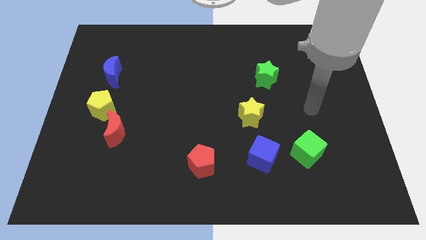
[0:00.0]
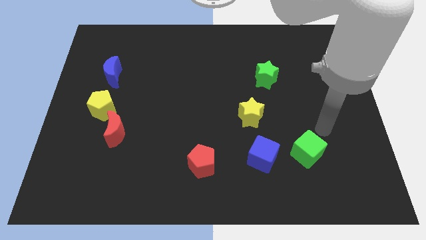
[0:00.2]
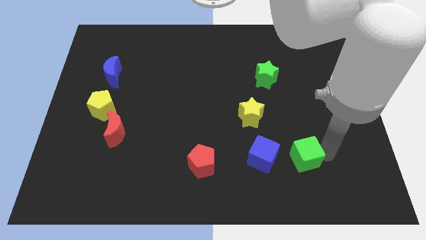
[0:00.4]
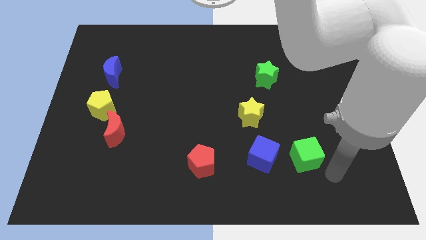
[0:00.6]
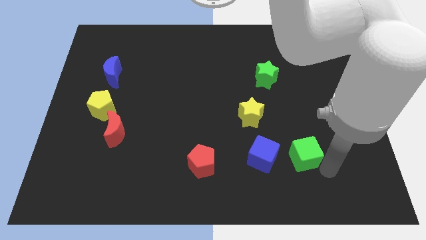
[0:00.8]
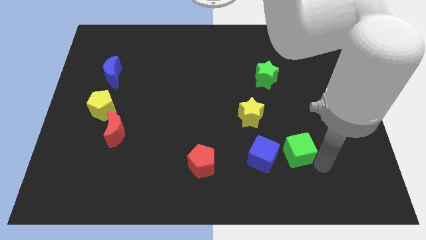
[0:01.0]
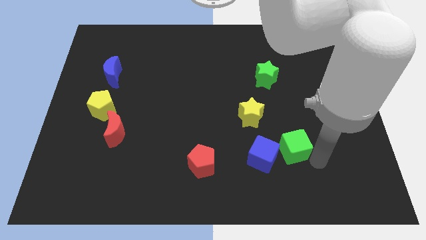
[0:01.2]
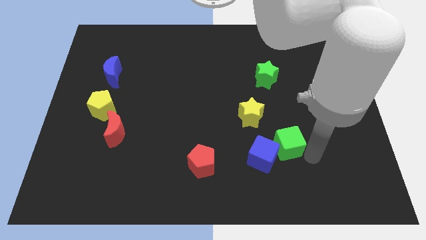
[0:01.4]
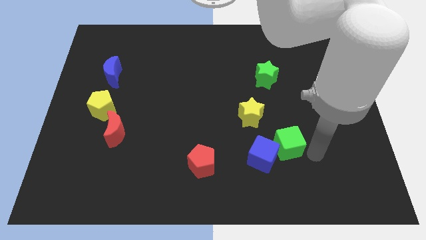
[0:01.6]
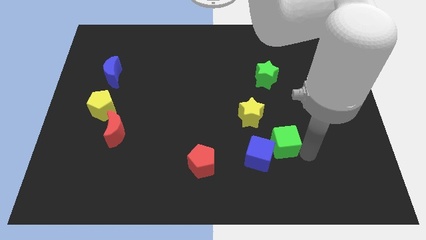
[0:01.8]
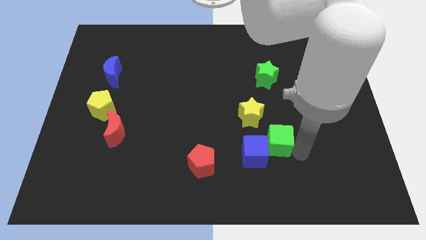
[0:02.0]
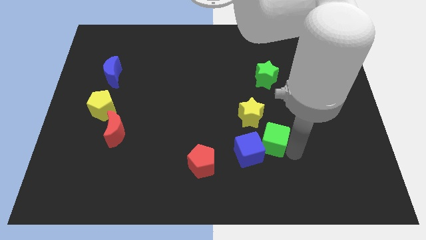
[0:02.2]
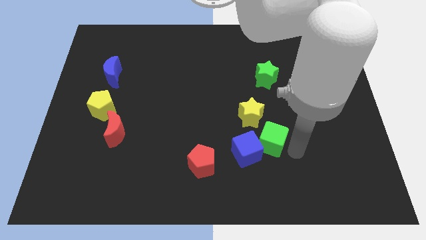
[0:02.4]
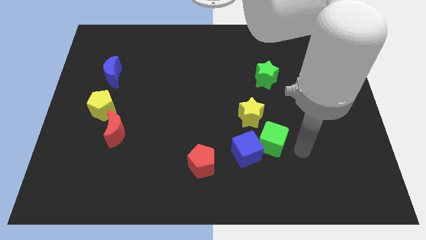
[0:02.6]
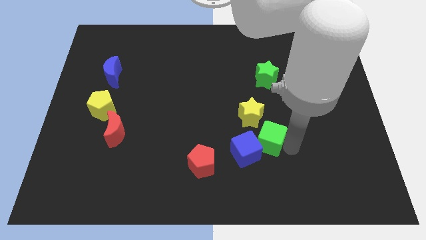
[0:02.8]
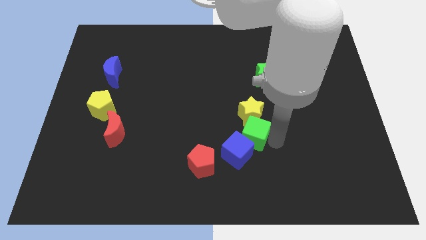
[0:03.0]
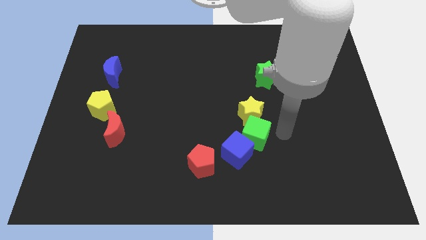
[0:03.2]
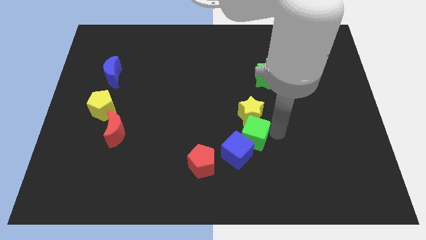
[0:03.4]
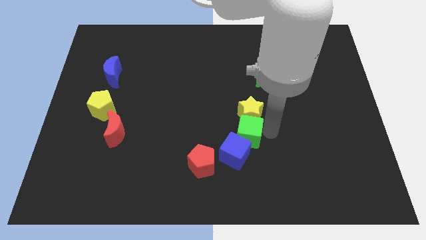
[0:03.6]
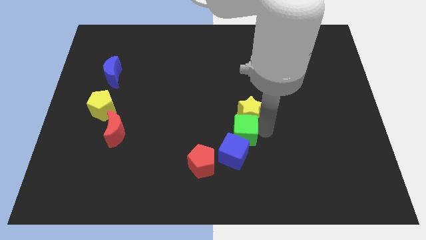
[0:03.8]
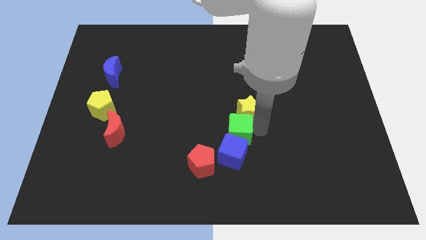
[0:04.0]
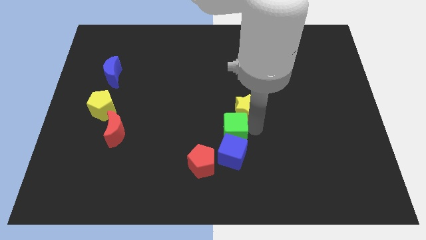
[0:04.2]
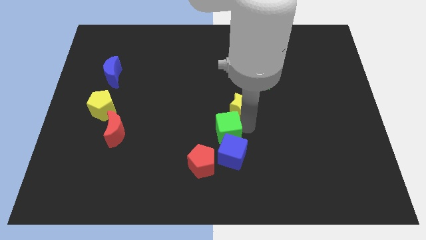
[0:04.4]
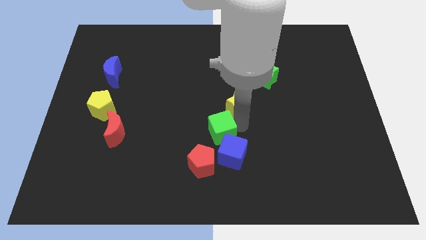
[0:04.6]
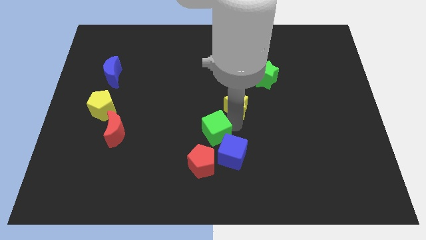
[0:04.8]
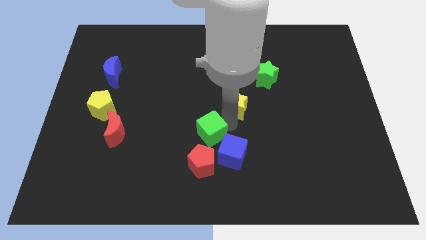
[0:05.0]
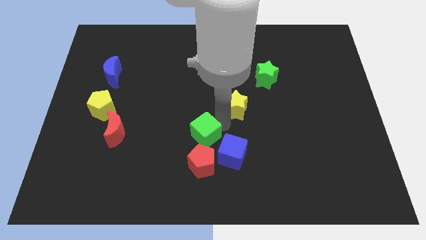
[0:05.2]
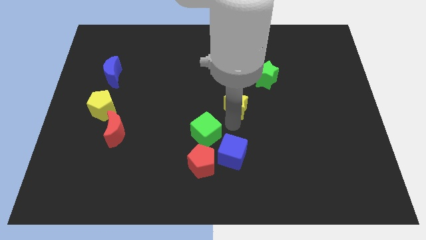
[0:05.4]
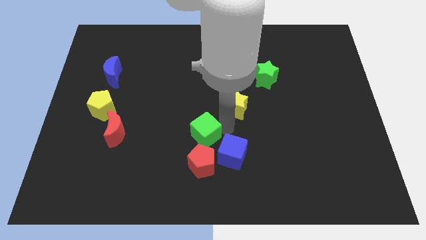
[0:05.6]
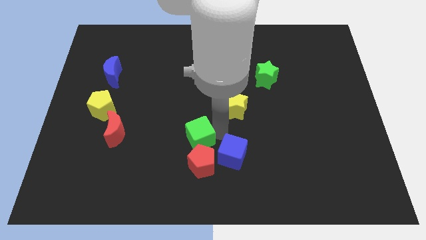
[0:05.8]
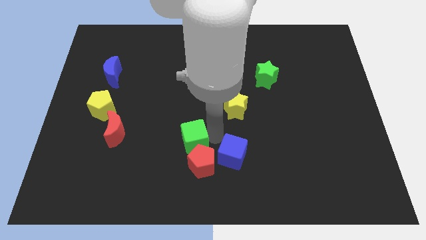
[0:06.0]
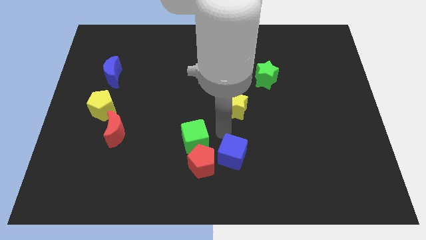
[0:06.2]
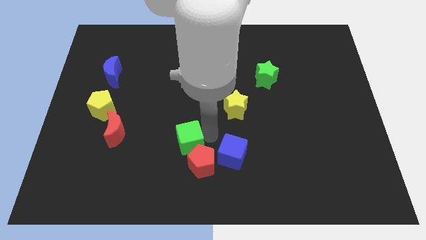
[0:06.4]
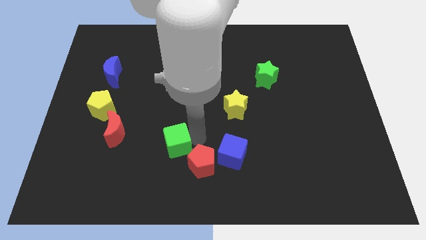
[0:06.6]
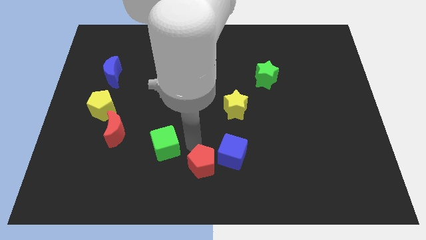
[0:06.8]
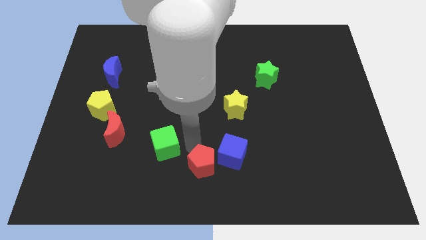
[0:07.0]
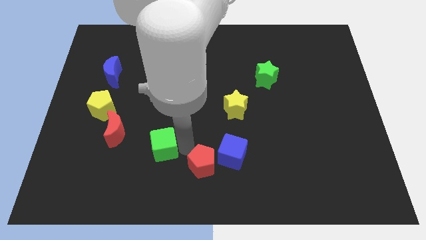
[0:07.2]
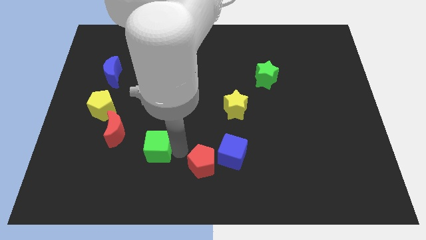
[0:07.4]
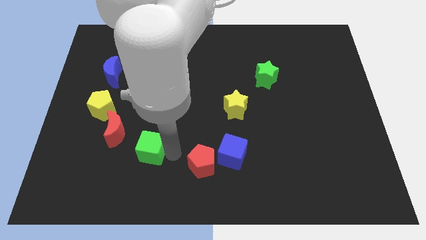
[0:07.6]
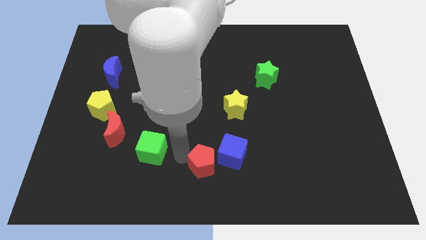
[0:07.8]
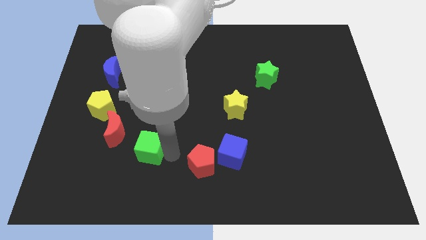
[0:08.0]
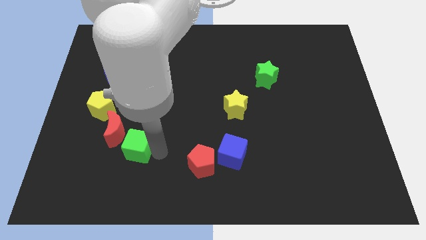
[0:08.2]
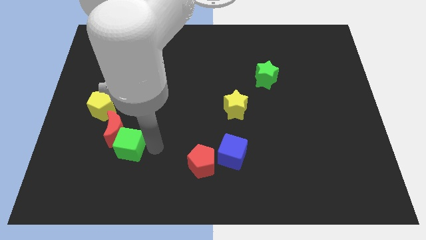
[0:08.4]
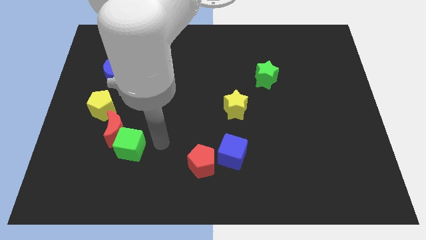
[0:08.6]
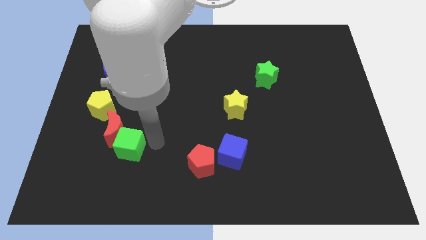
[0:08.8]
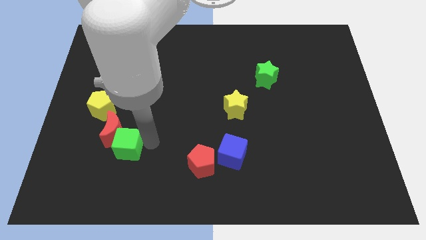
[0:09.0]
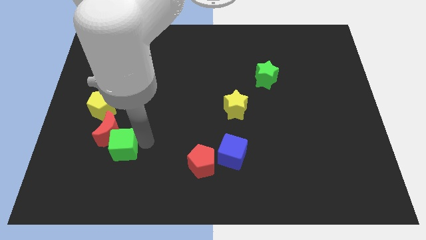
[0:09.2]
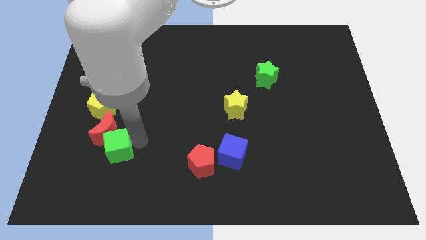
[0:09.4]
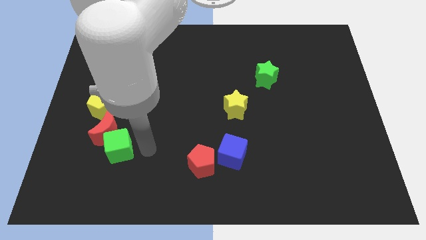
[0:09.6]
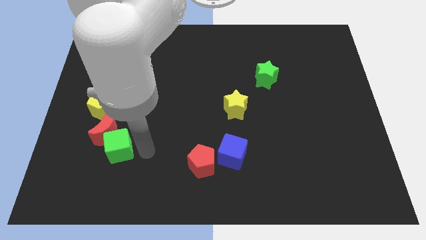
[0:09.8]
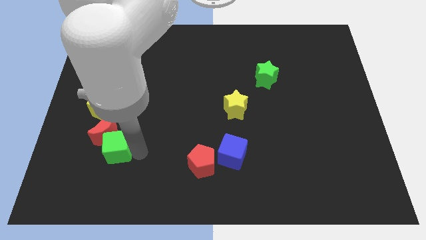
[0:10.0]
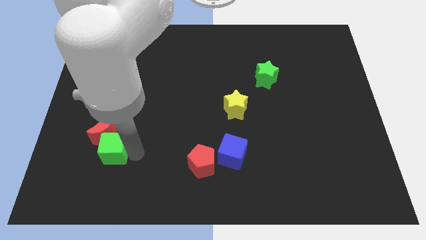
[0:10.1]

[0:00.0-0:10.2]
put the green cube to the bottom side of the yellow pentagon

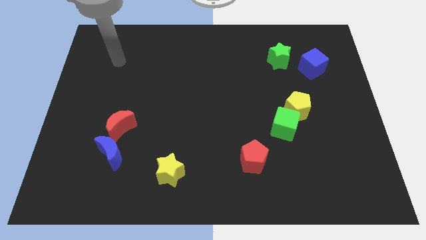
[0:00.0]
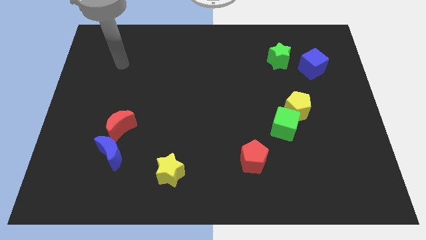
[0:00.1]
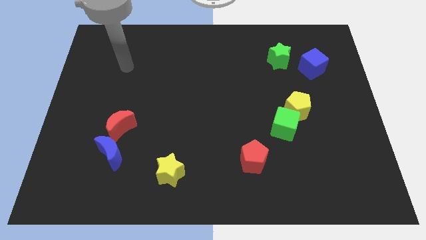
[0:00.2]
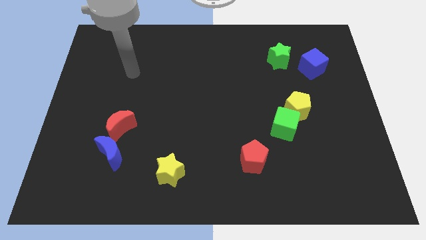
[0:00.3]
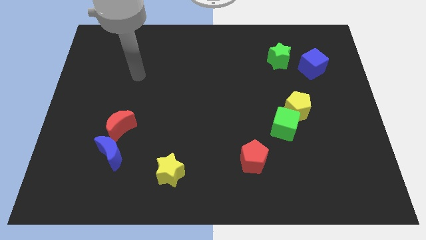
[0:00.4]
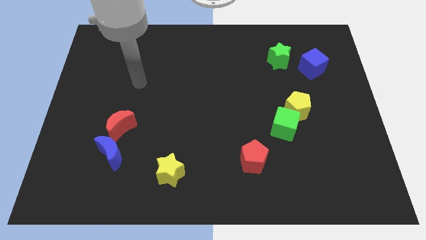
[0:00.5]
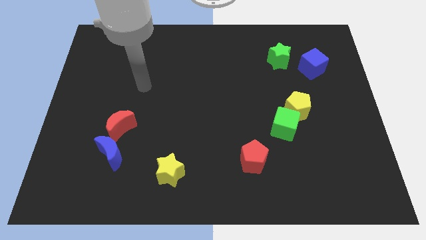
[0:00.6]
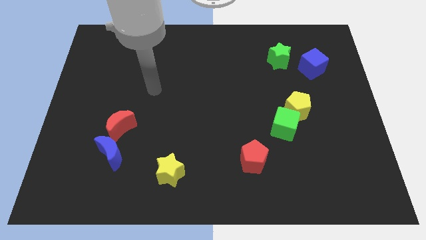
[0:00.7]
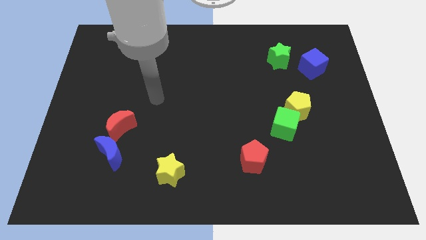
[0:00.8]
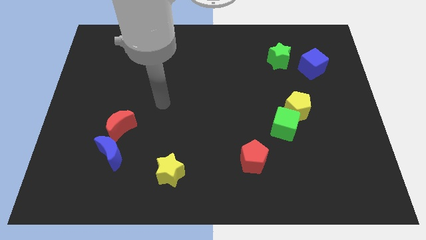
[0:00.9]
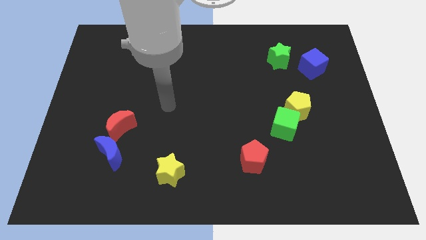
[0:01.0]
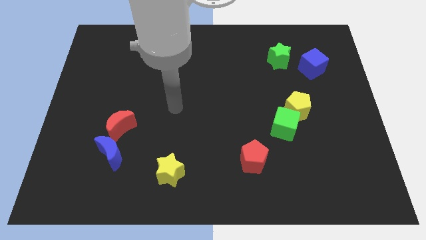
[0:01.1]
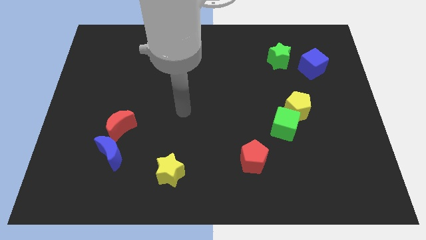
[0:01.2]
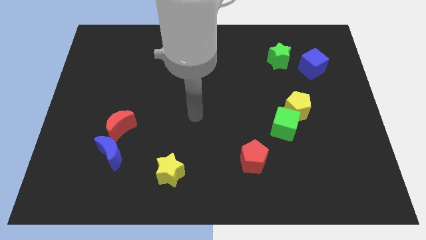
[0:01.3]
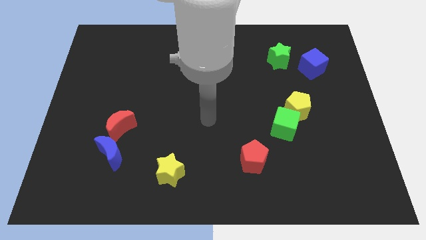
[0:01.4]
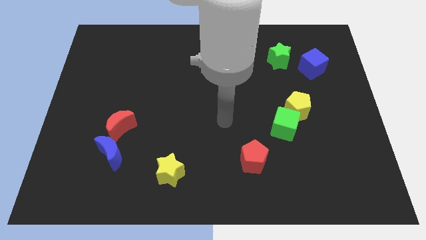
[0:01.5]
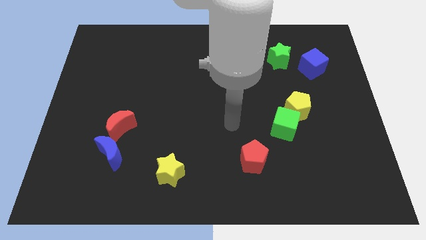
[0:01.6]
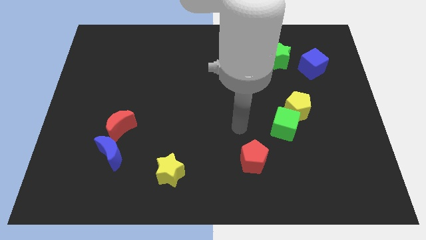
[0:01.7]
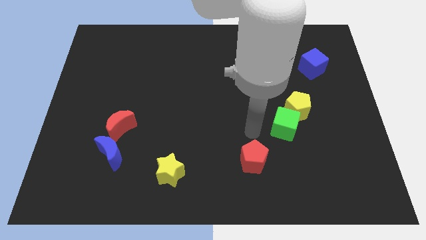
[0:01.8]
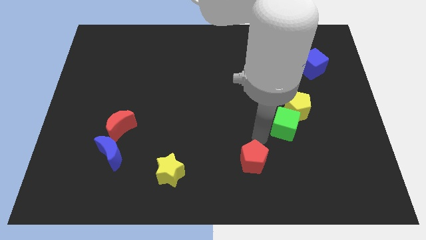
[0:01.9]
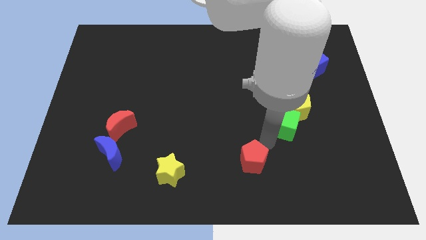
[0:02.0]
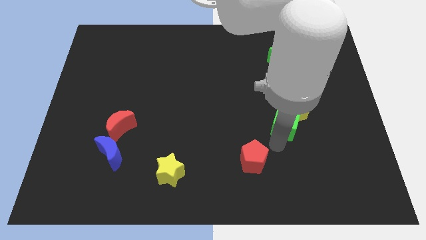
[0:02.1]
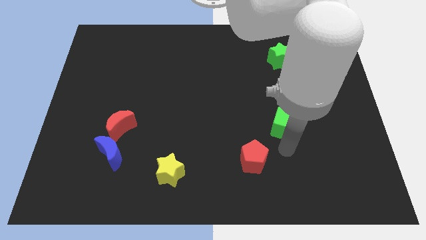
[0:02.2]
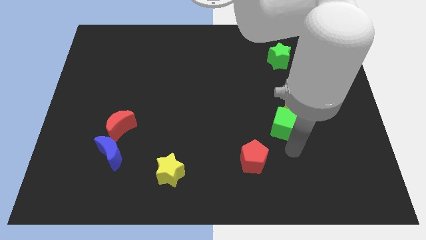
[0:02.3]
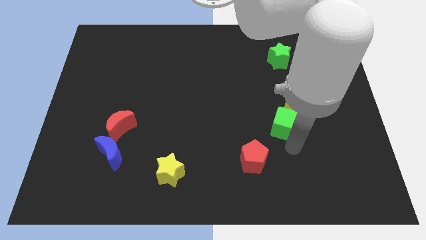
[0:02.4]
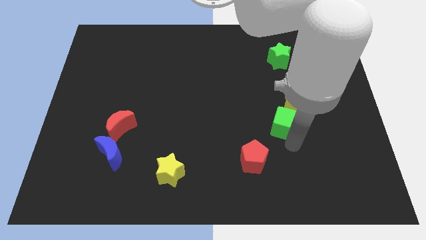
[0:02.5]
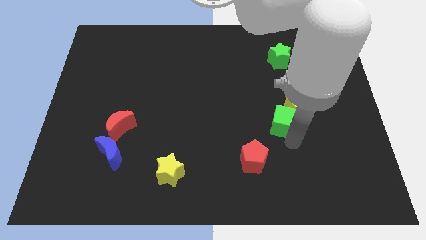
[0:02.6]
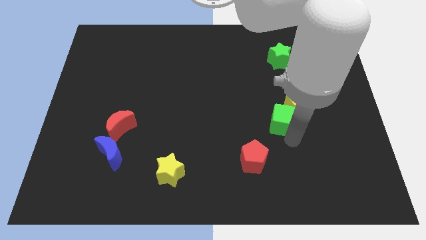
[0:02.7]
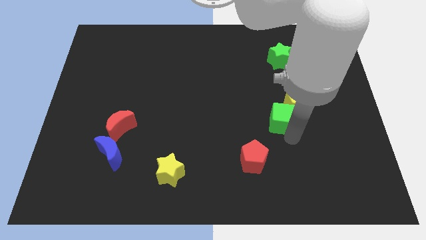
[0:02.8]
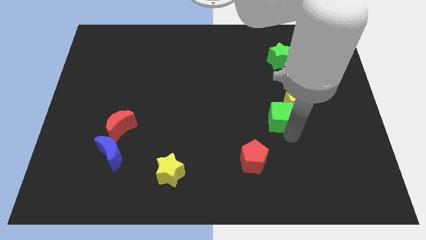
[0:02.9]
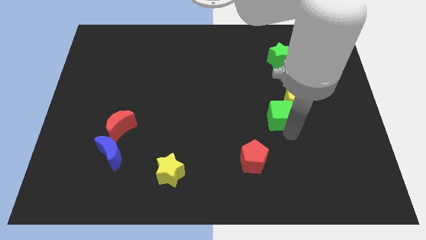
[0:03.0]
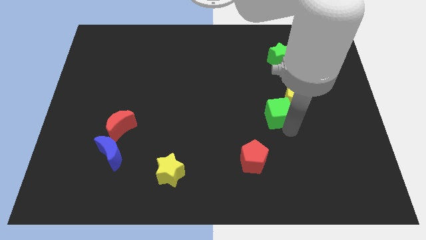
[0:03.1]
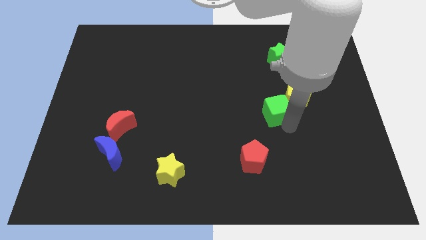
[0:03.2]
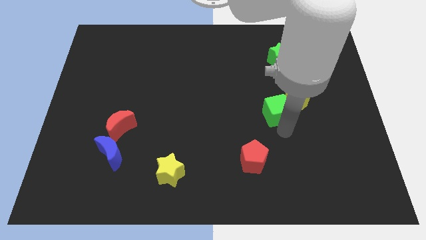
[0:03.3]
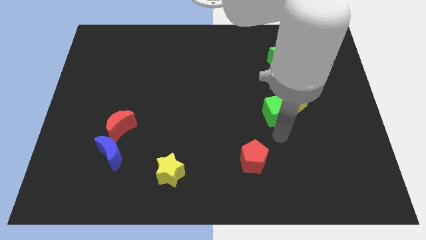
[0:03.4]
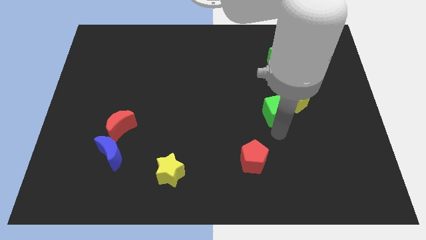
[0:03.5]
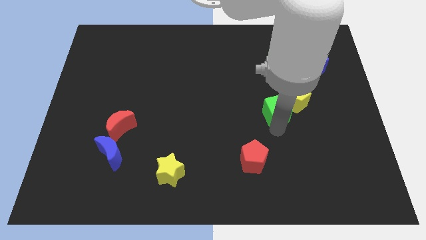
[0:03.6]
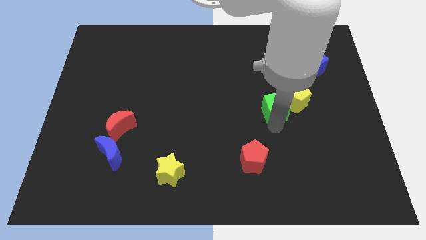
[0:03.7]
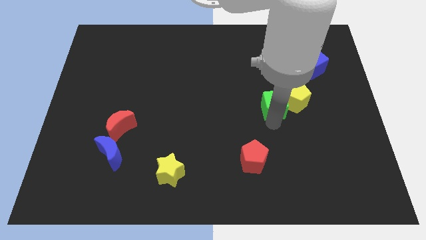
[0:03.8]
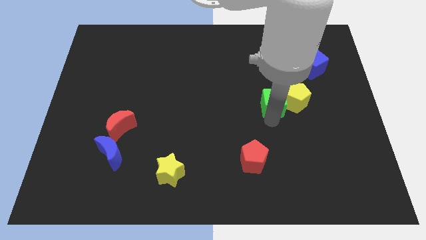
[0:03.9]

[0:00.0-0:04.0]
move the green cube to the top left of the yellow pentagon
